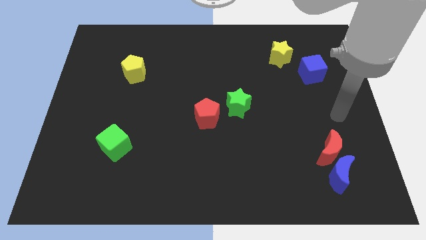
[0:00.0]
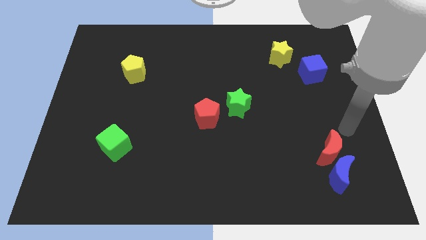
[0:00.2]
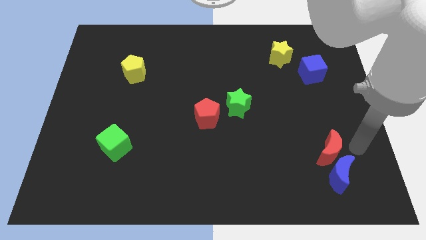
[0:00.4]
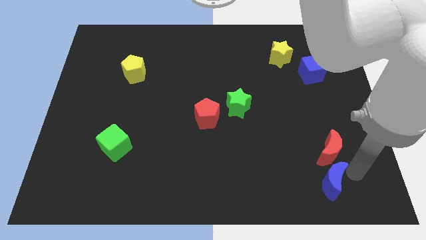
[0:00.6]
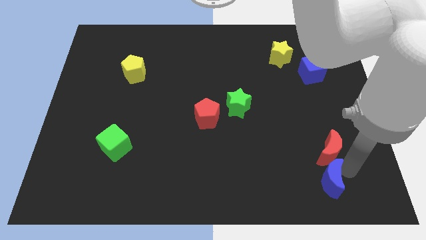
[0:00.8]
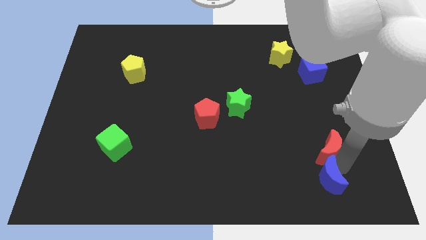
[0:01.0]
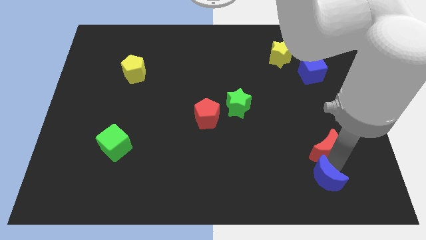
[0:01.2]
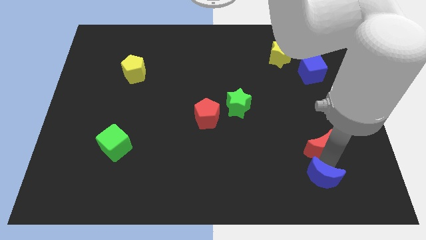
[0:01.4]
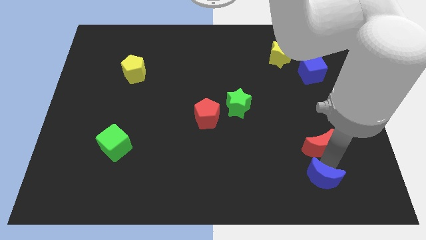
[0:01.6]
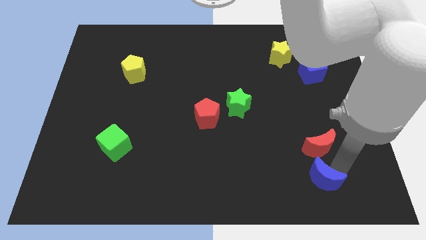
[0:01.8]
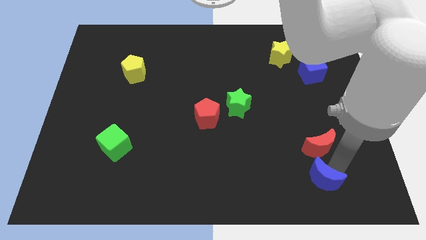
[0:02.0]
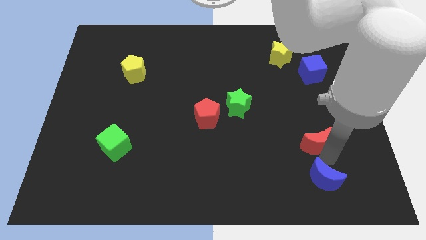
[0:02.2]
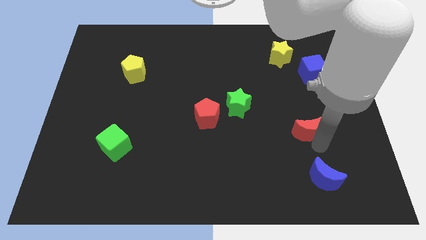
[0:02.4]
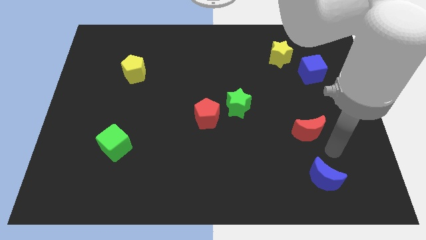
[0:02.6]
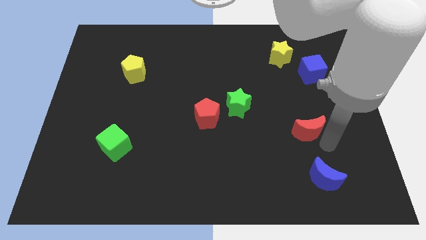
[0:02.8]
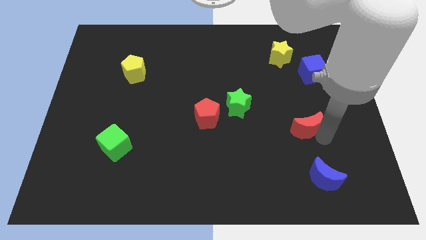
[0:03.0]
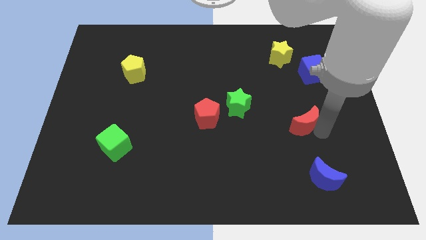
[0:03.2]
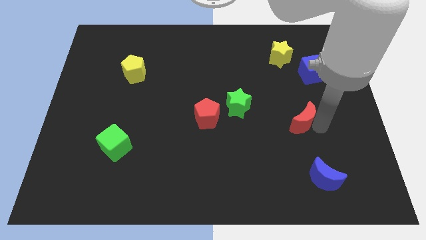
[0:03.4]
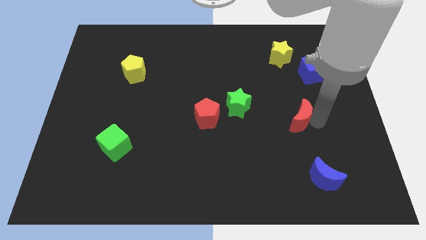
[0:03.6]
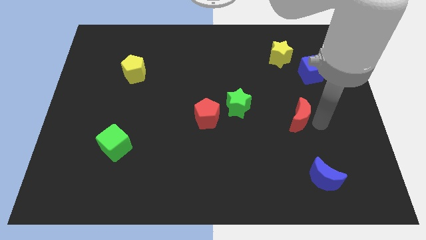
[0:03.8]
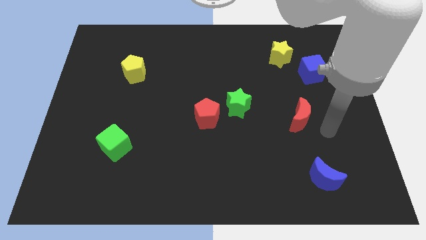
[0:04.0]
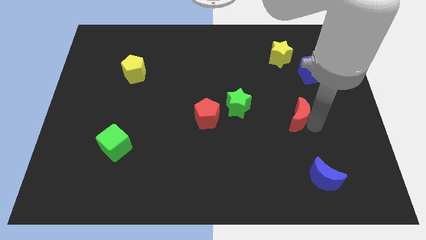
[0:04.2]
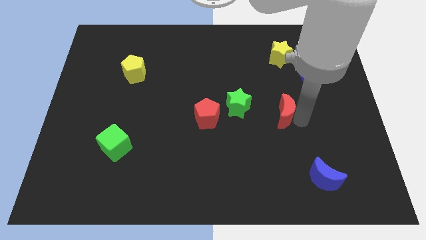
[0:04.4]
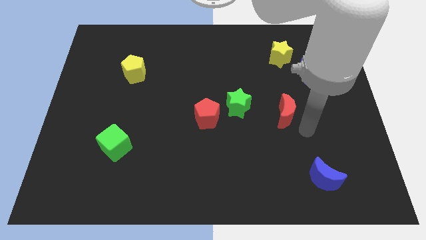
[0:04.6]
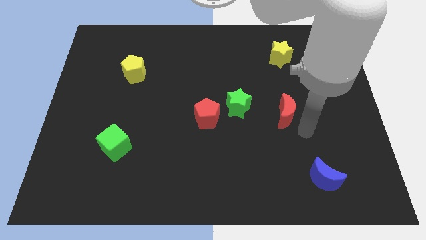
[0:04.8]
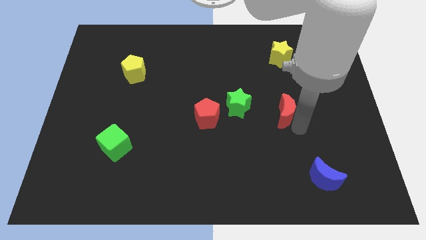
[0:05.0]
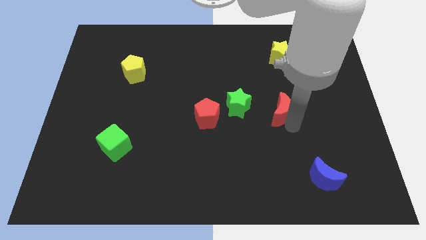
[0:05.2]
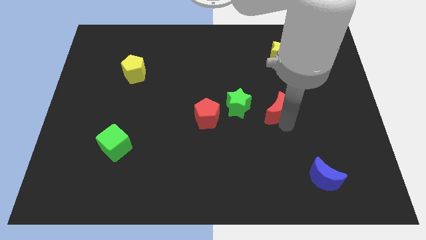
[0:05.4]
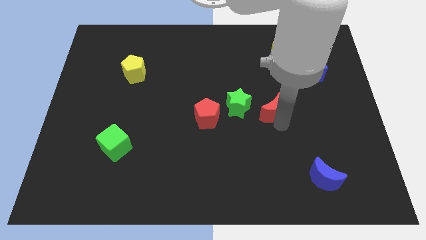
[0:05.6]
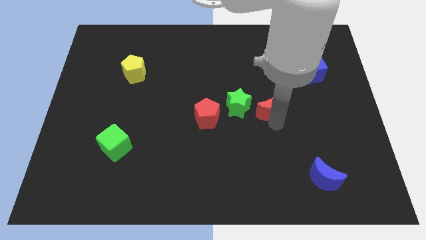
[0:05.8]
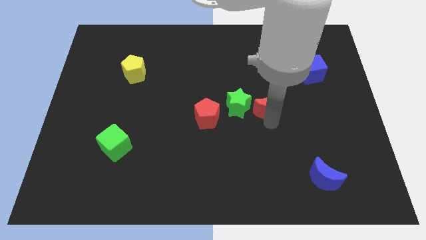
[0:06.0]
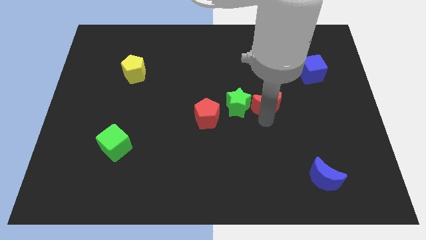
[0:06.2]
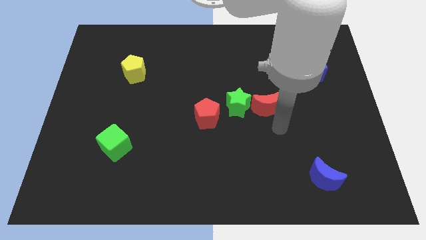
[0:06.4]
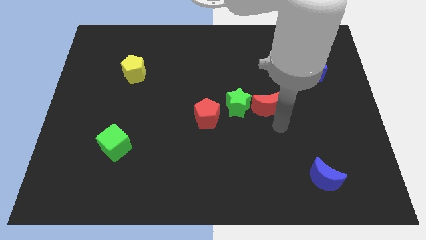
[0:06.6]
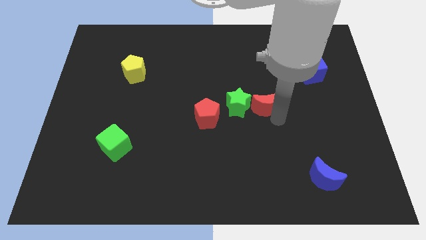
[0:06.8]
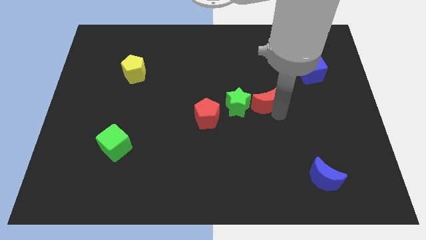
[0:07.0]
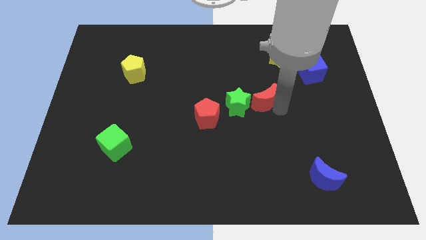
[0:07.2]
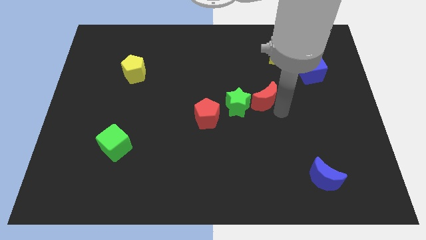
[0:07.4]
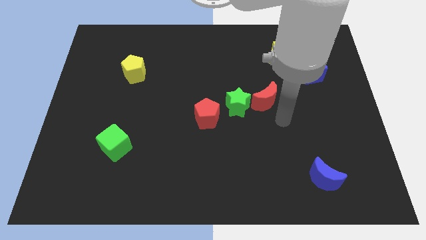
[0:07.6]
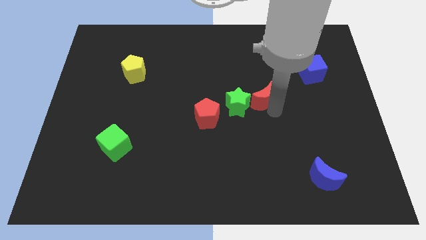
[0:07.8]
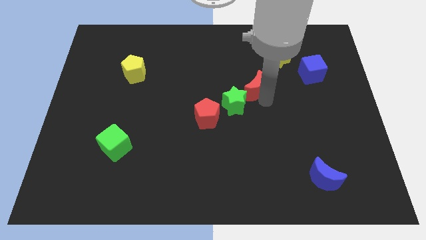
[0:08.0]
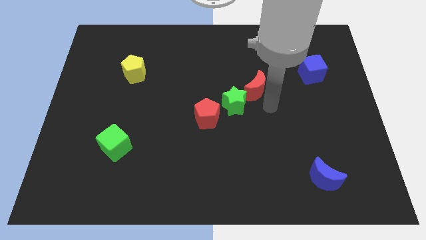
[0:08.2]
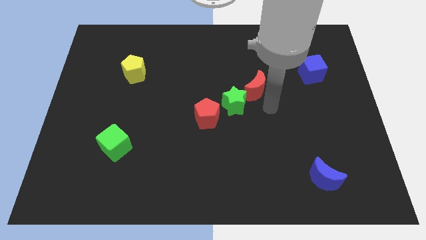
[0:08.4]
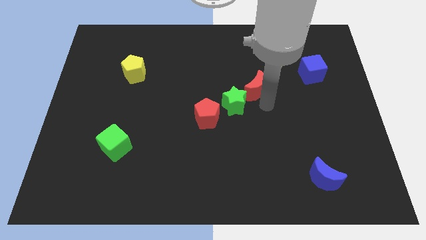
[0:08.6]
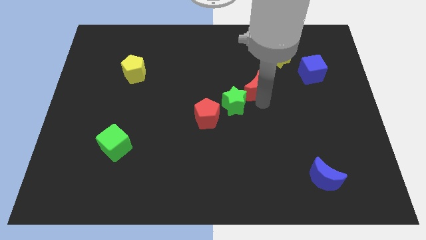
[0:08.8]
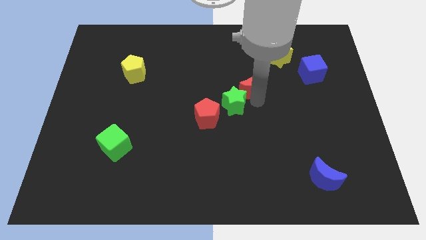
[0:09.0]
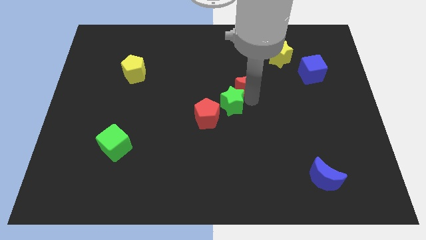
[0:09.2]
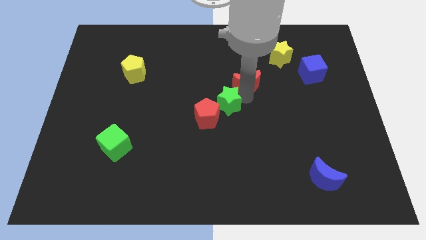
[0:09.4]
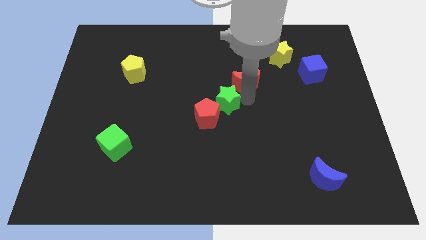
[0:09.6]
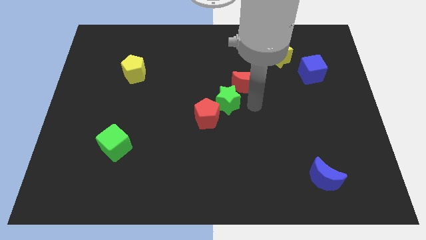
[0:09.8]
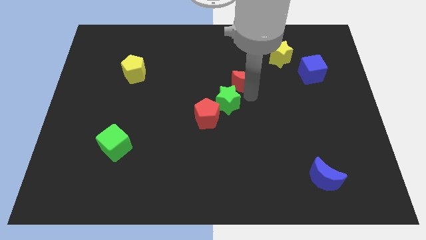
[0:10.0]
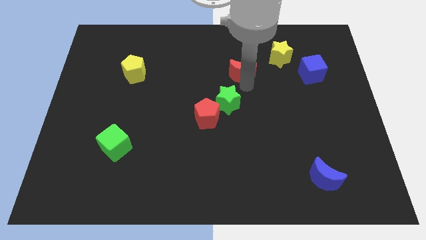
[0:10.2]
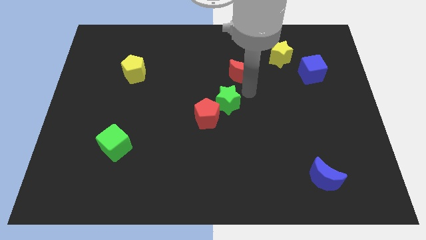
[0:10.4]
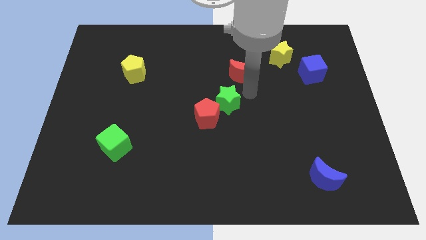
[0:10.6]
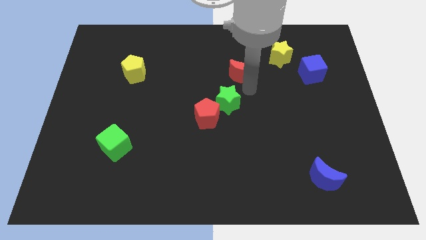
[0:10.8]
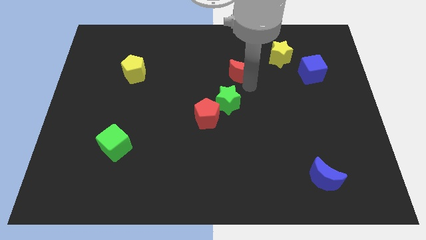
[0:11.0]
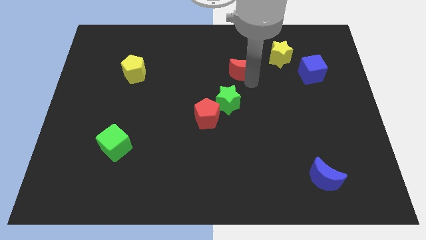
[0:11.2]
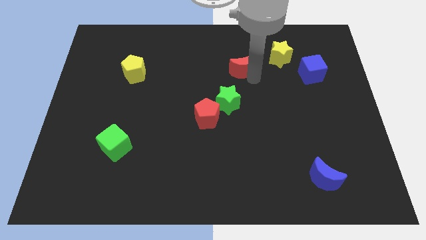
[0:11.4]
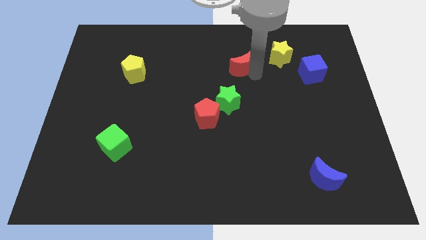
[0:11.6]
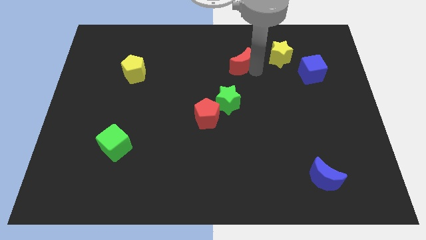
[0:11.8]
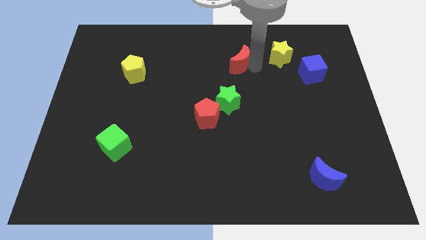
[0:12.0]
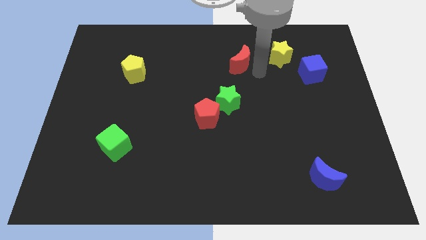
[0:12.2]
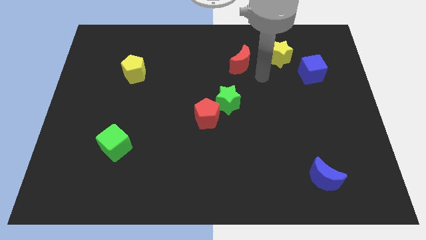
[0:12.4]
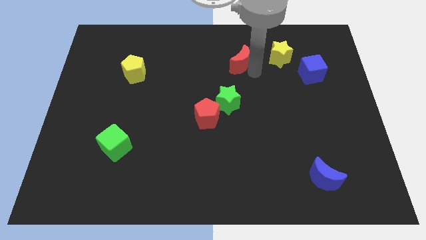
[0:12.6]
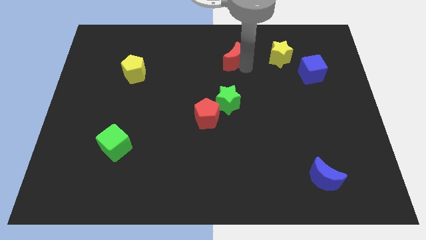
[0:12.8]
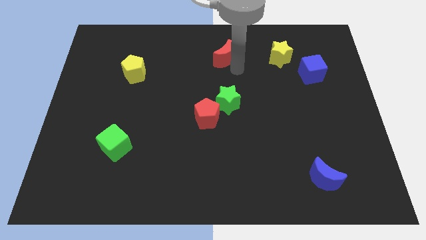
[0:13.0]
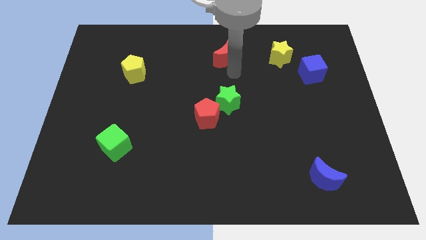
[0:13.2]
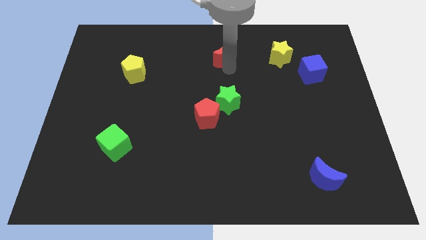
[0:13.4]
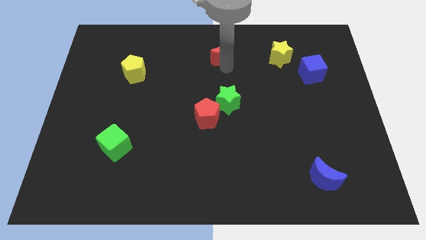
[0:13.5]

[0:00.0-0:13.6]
move the red moon to the top
